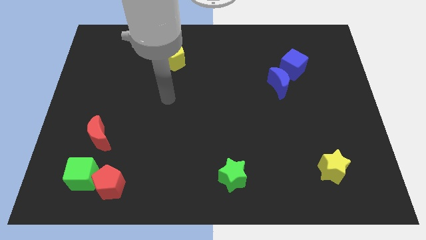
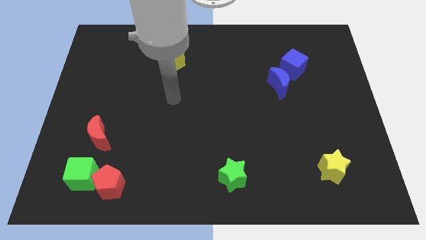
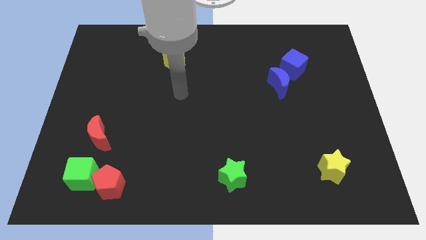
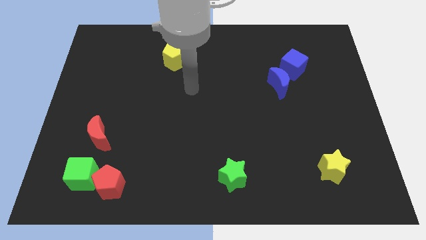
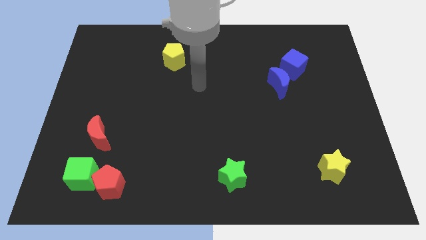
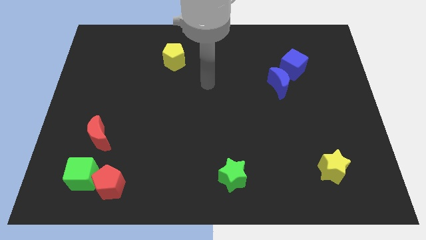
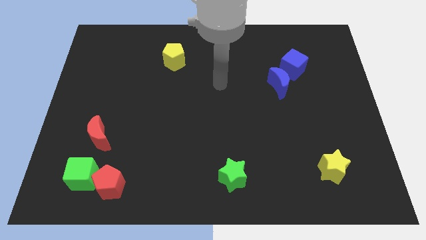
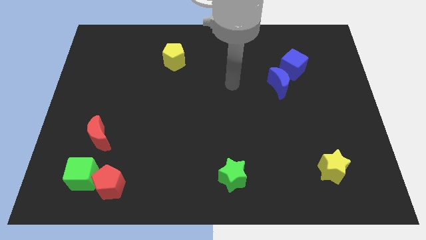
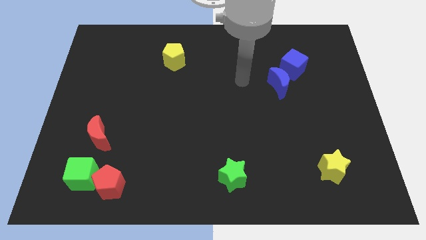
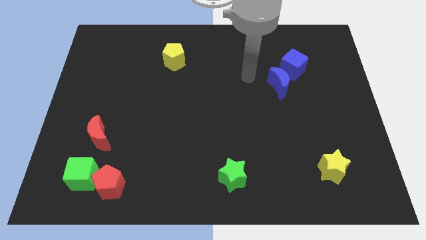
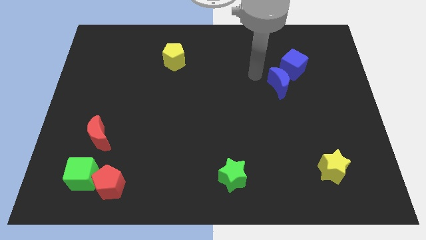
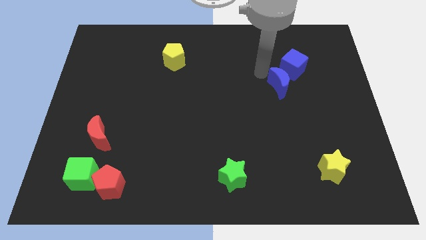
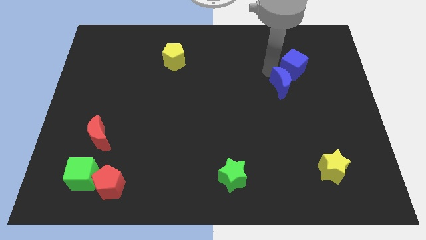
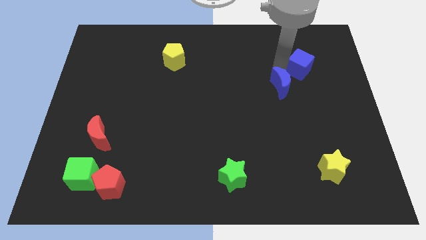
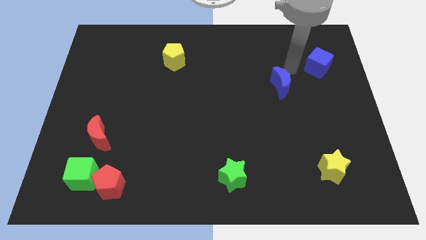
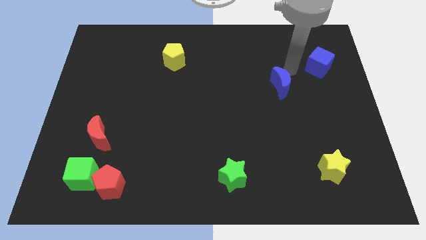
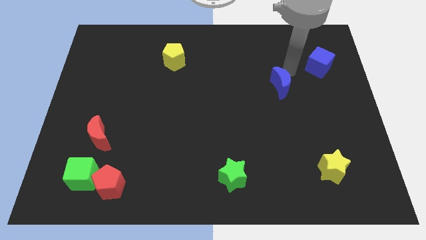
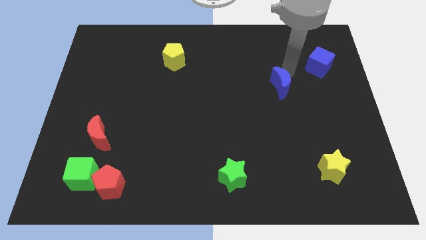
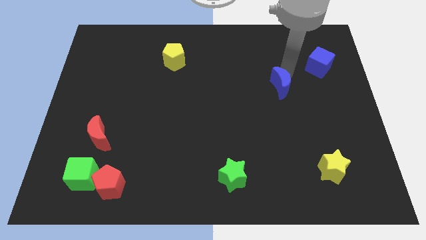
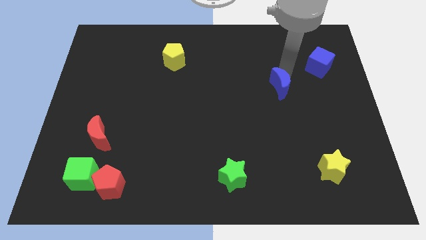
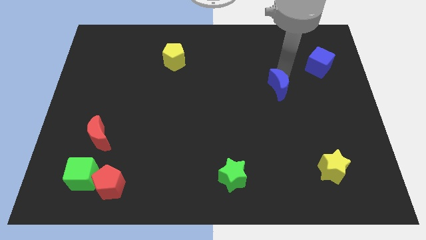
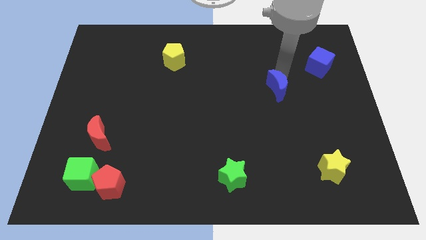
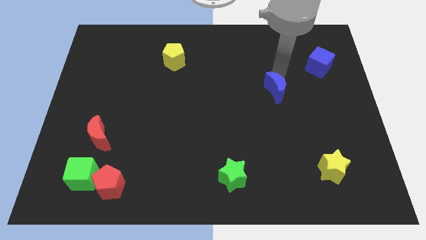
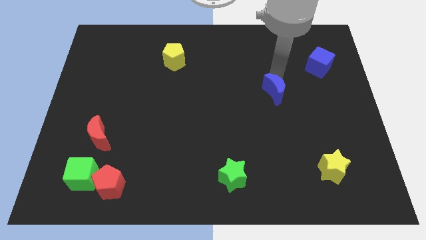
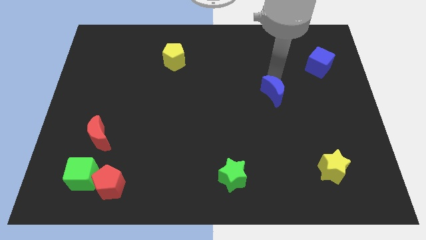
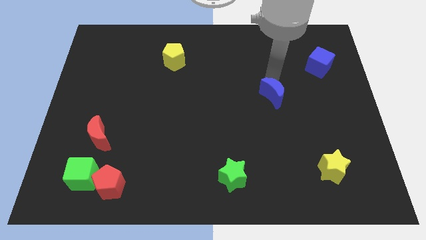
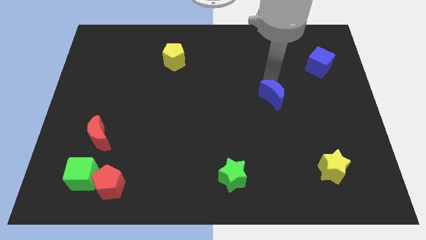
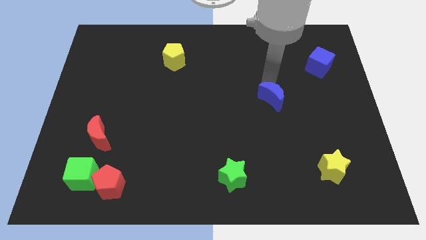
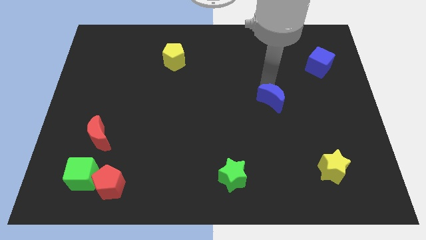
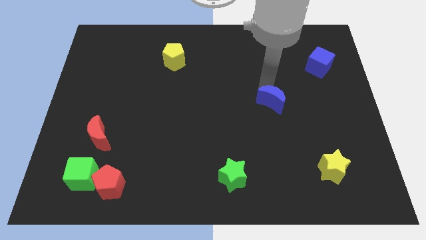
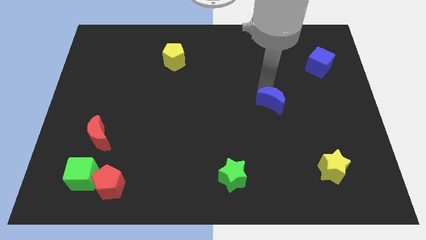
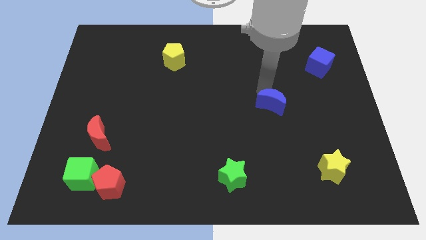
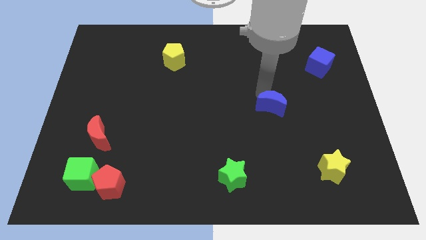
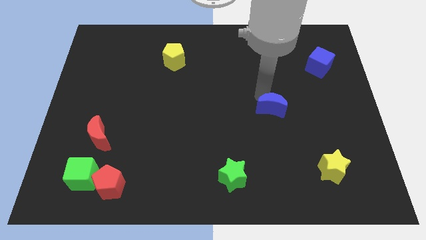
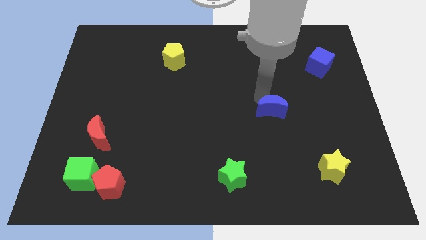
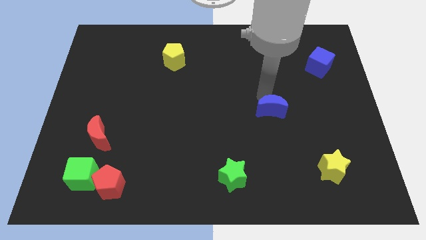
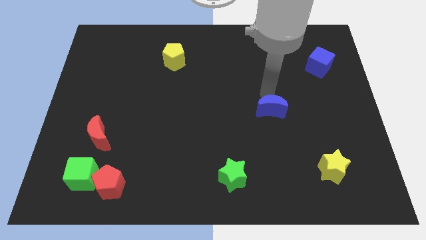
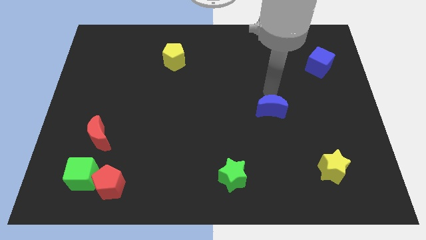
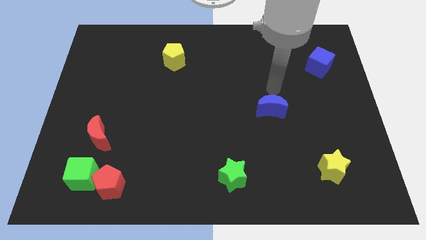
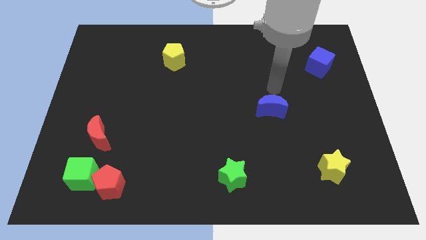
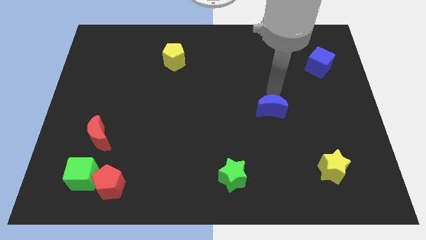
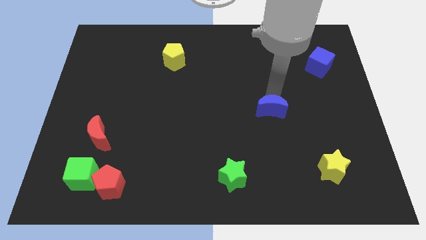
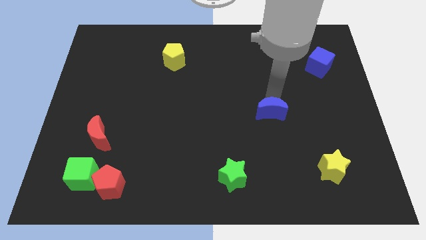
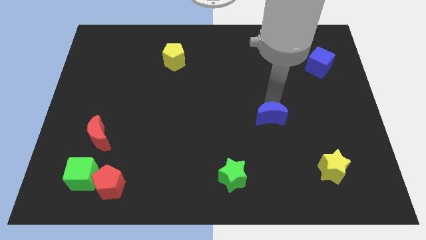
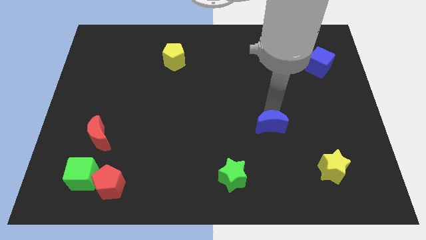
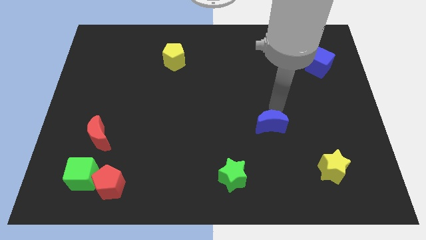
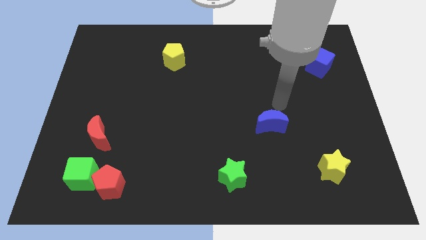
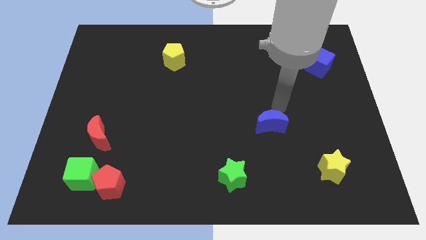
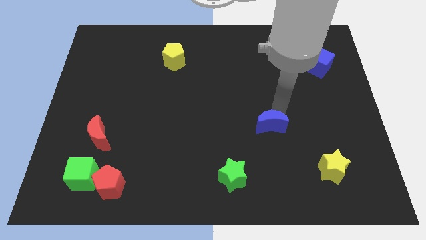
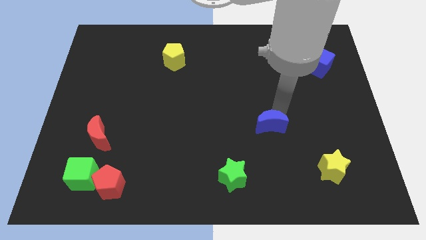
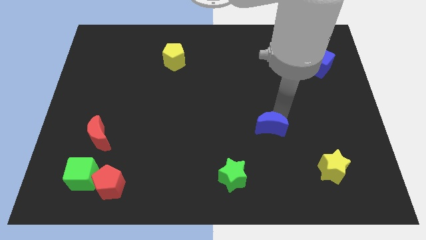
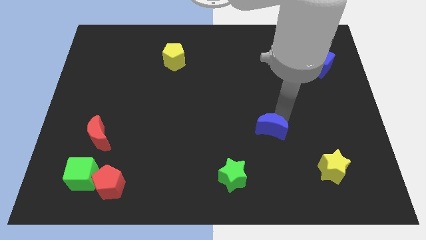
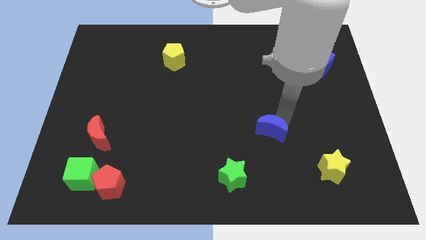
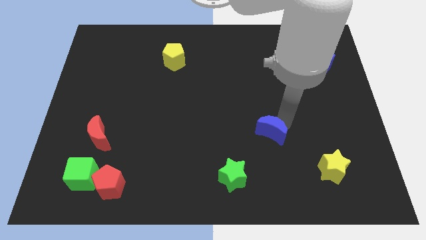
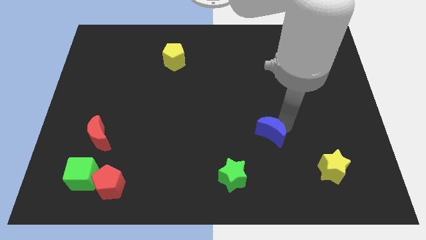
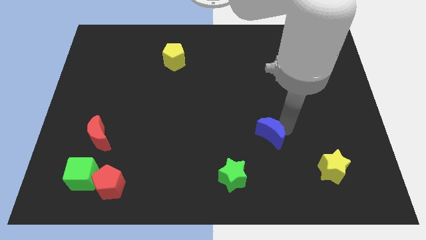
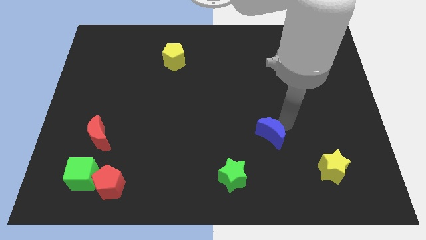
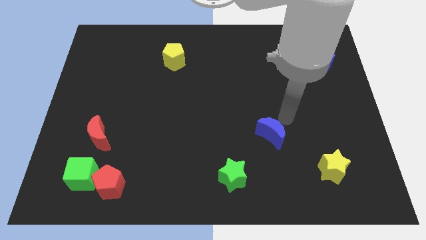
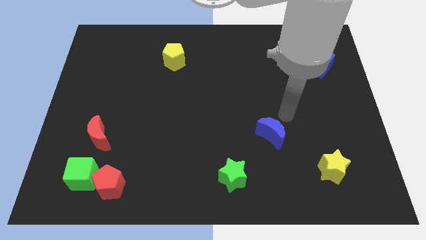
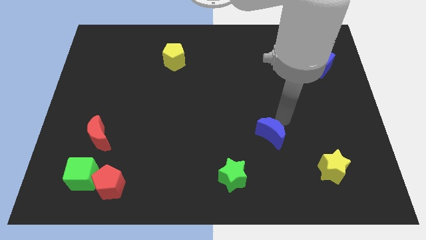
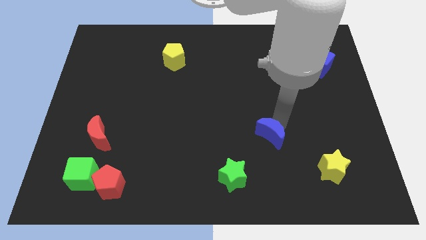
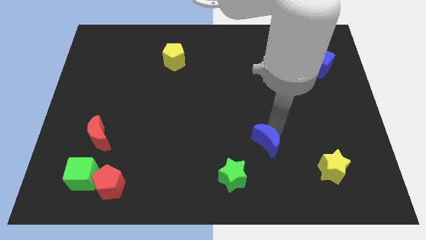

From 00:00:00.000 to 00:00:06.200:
slide the blue moon to the top right side of the green star

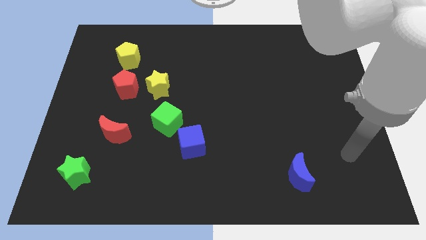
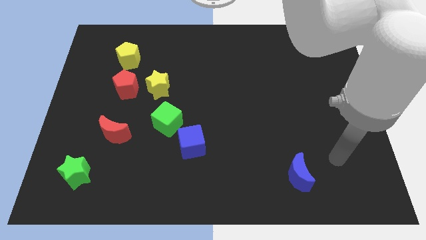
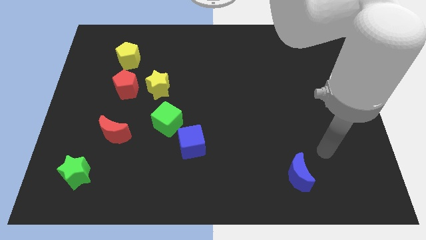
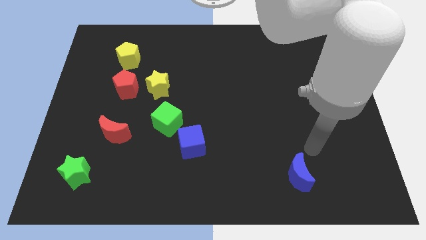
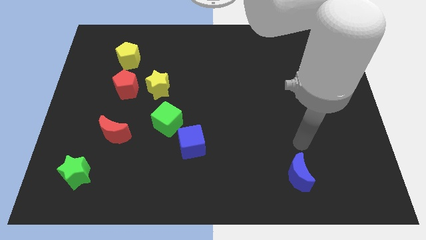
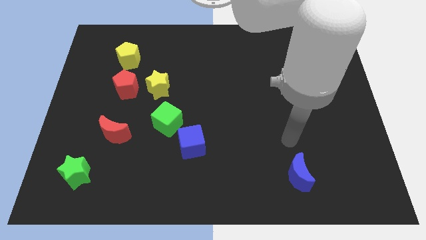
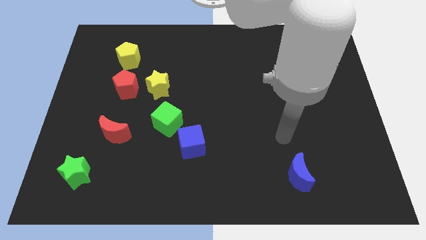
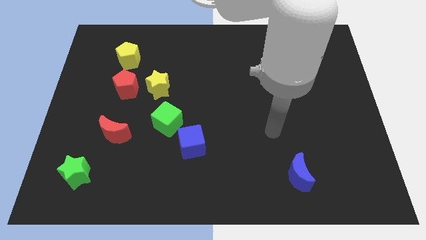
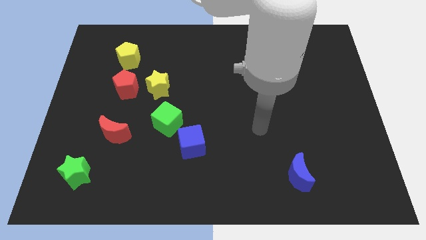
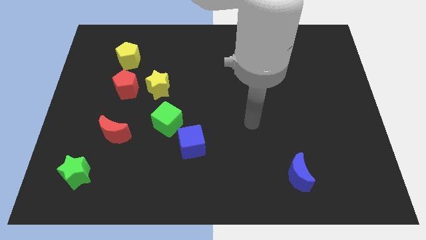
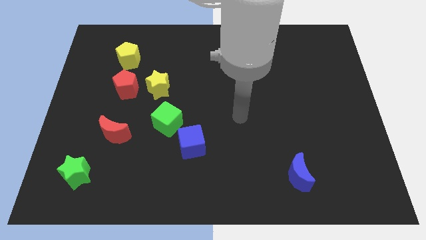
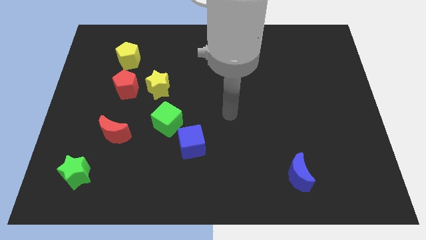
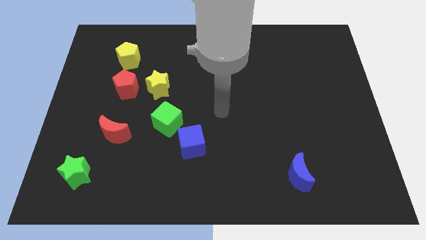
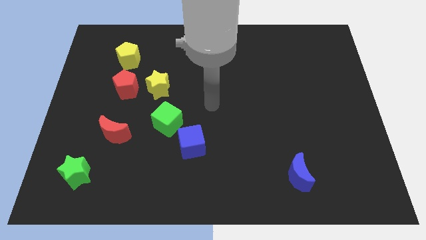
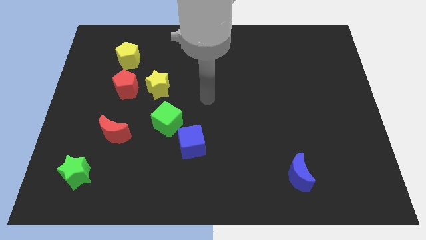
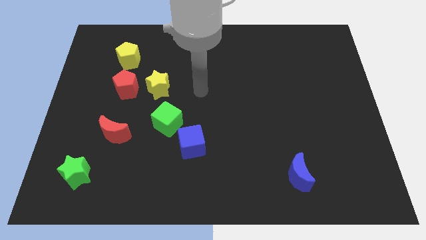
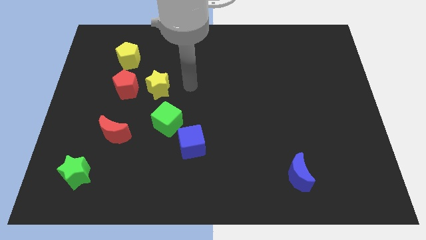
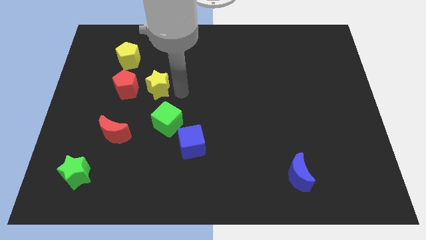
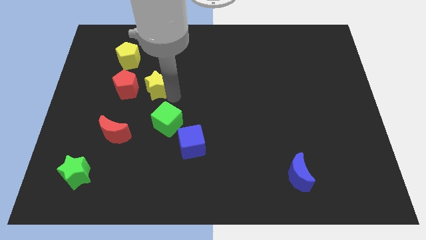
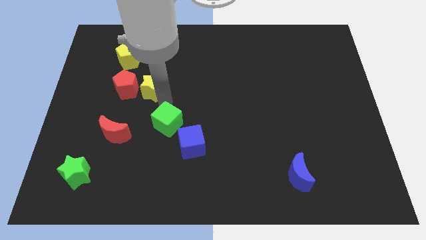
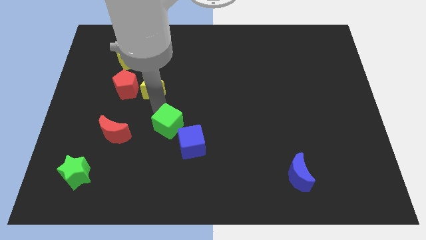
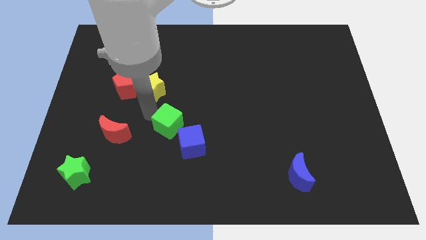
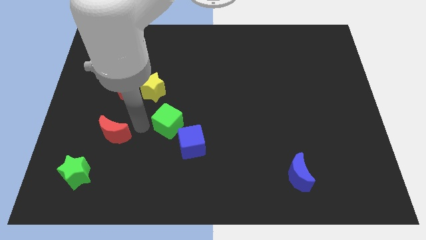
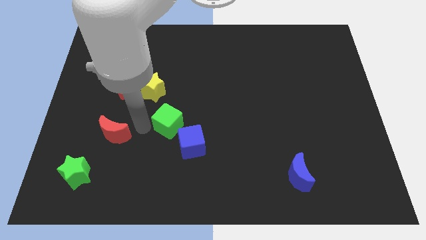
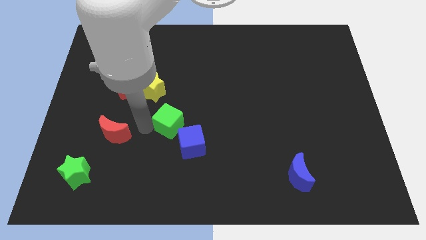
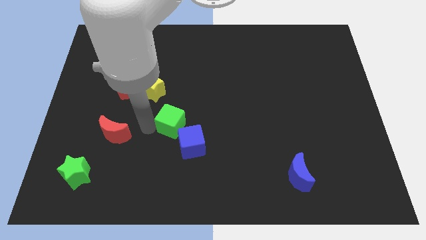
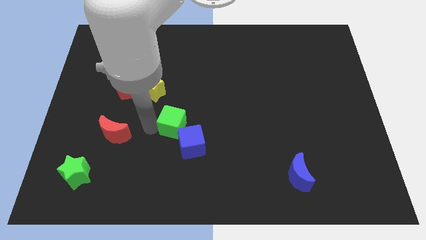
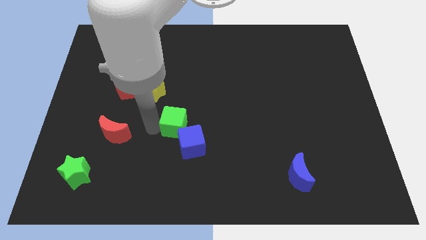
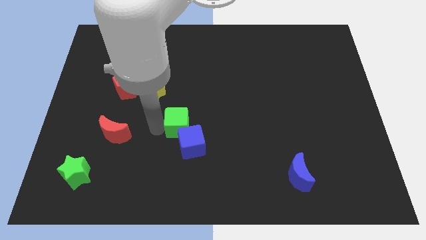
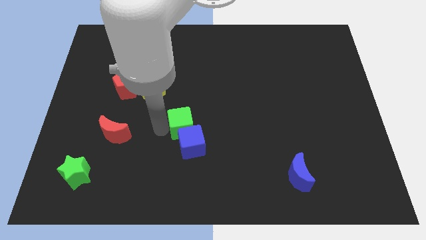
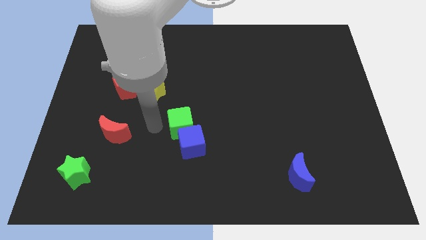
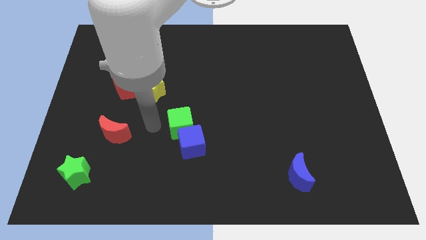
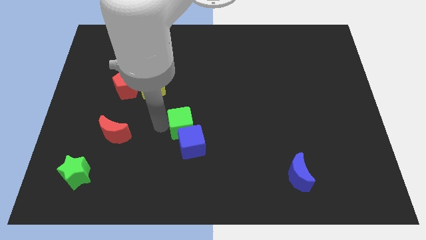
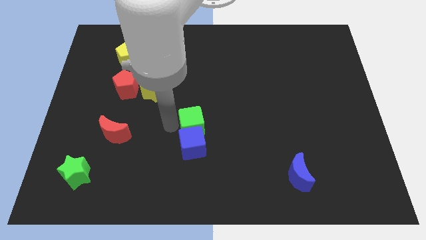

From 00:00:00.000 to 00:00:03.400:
move the green cube to the top right of the blue cube
